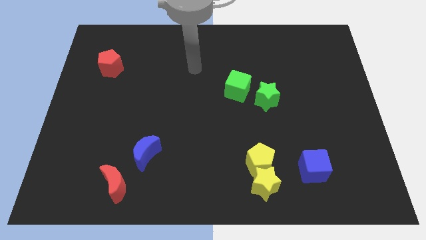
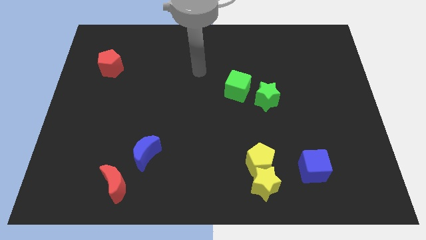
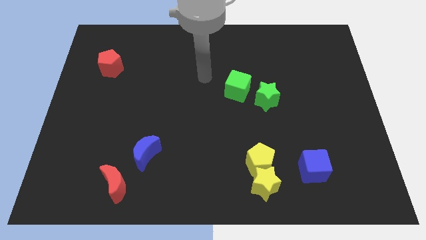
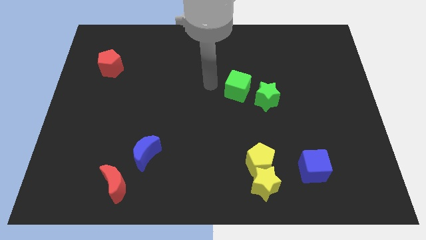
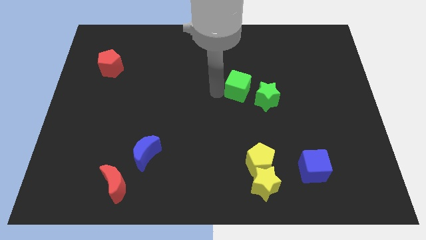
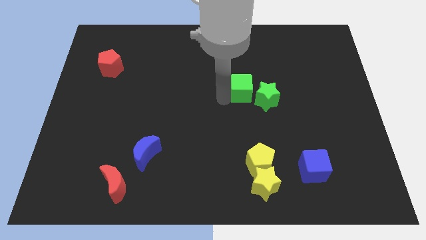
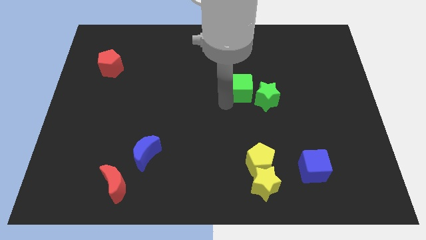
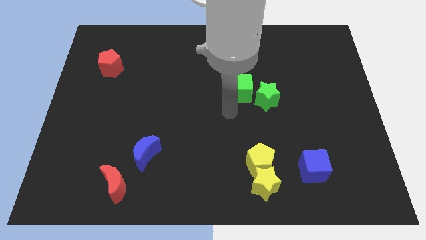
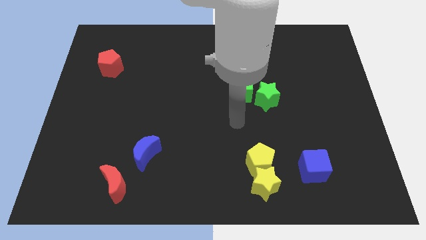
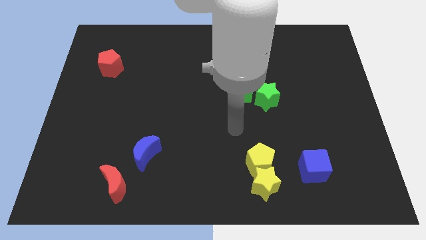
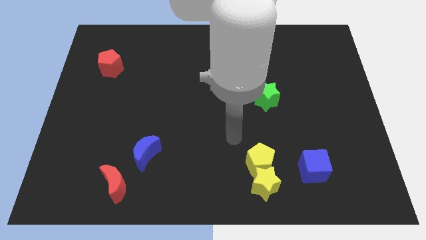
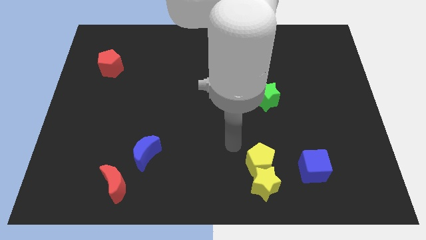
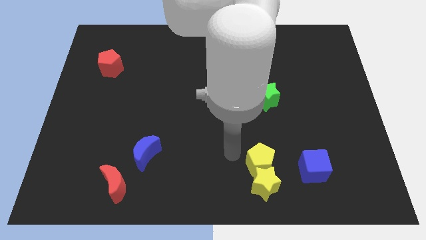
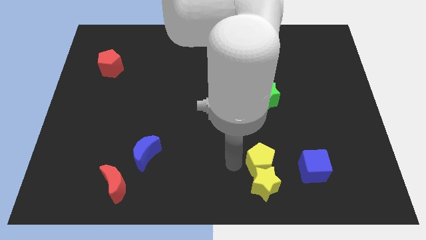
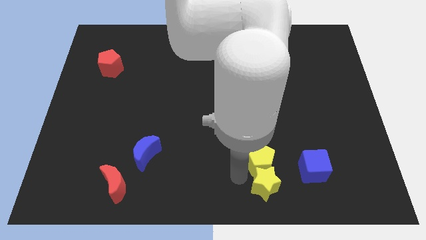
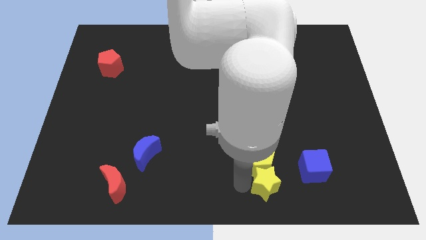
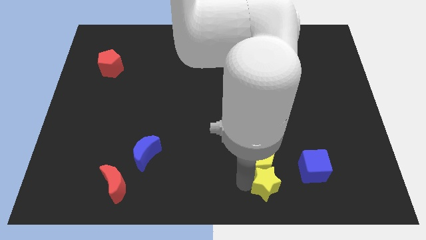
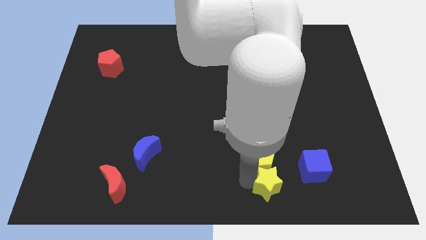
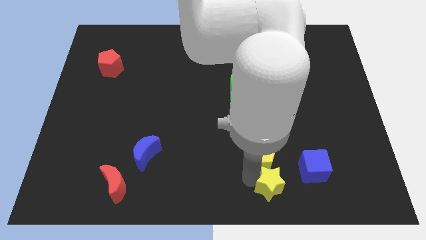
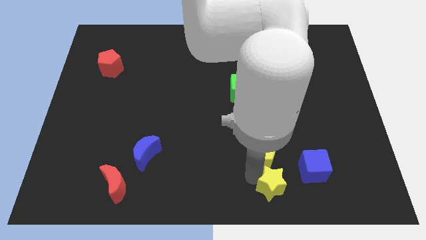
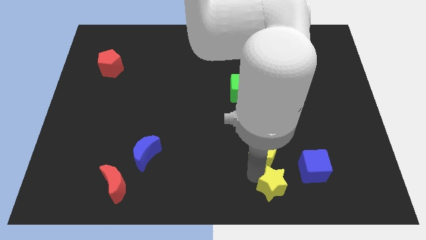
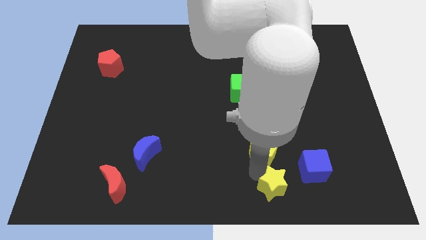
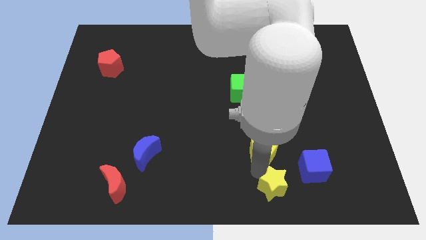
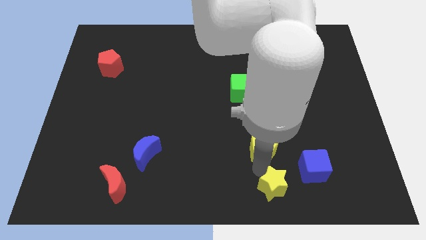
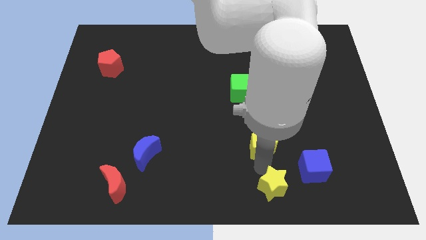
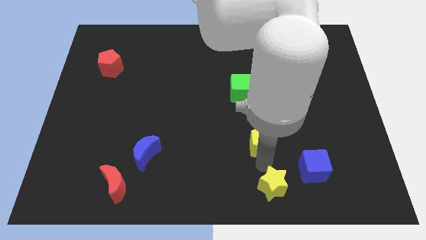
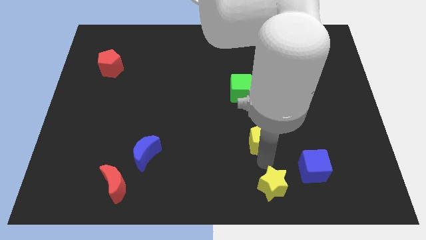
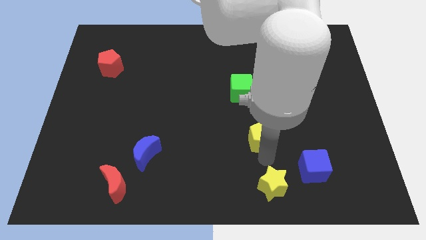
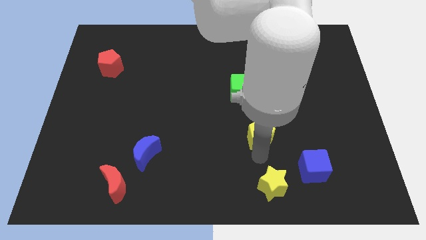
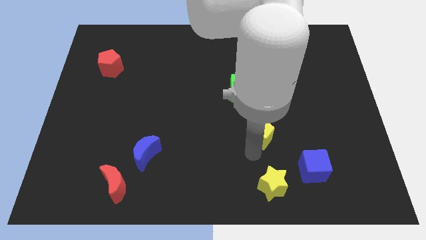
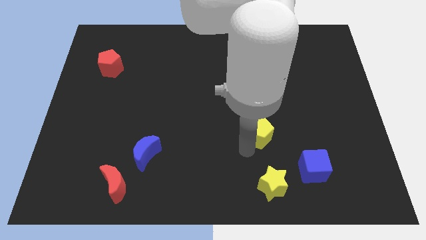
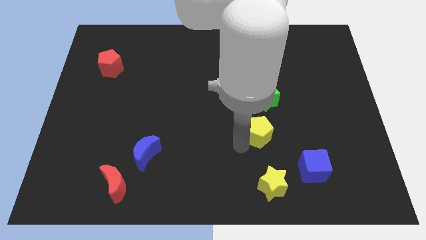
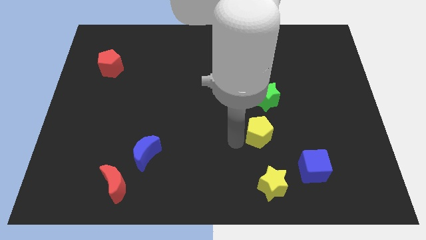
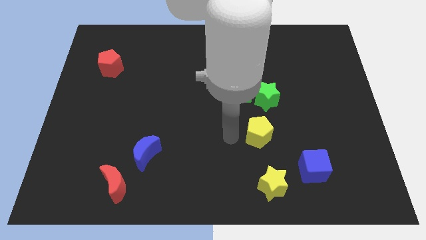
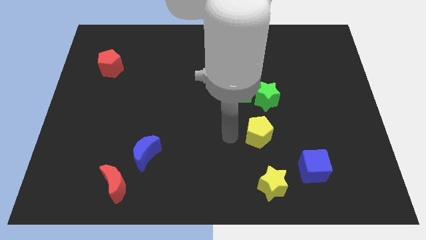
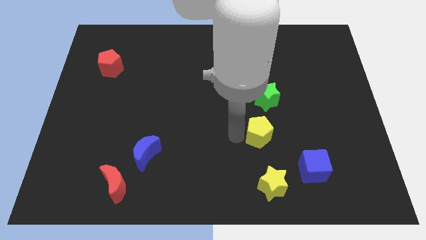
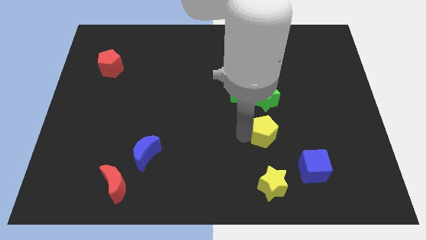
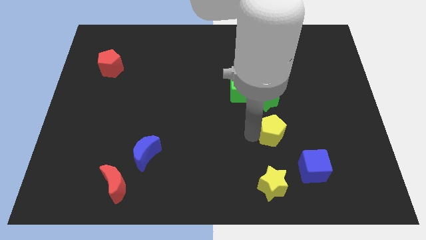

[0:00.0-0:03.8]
slightly slide the yellow pentagon diagonally up and to the right

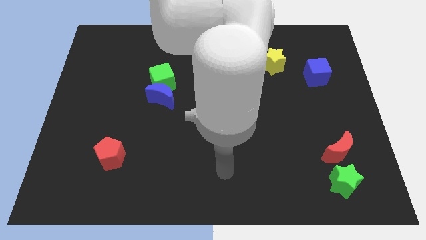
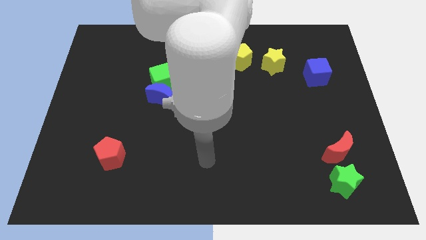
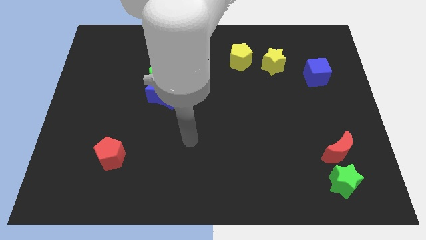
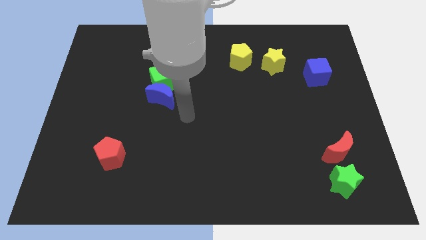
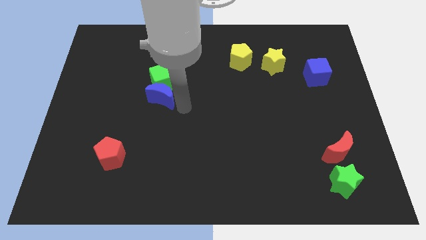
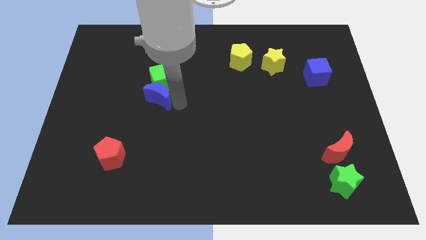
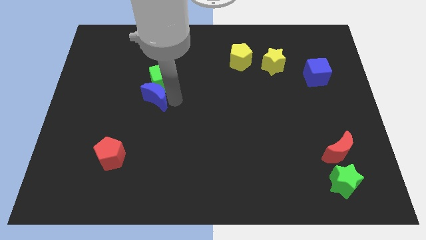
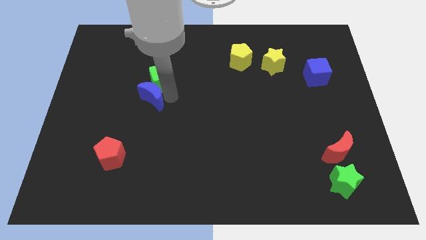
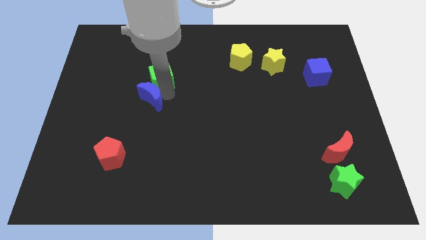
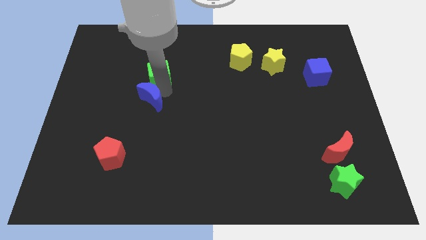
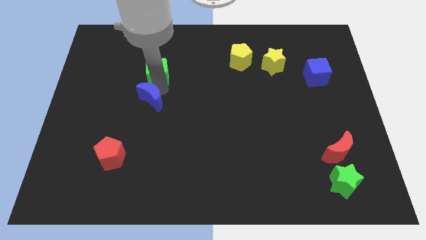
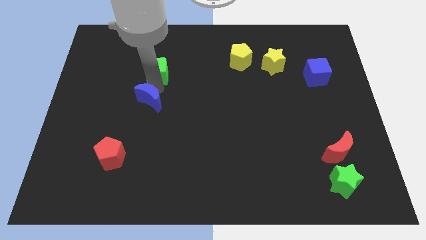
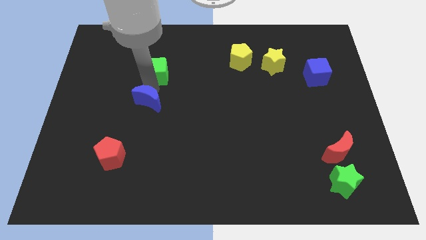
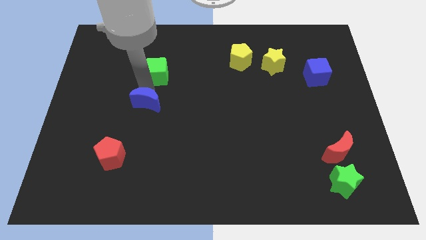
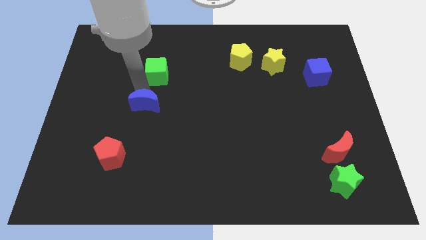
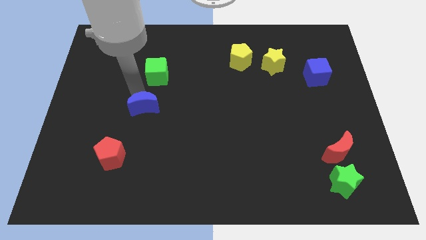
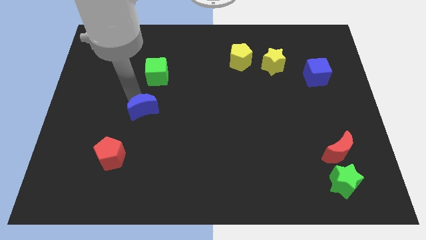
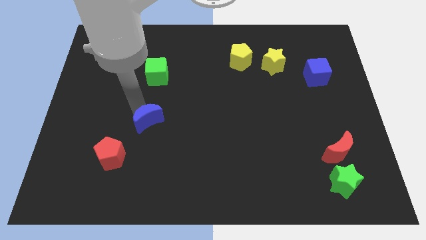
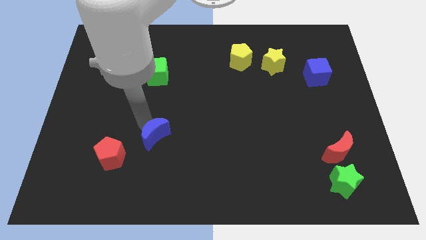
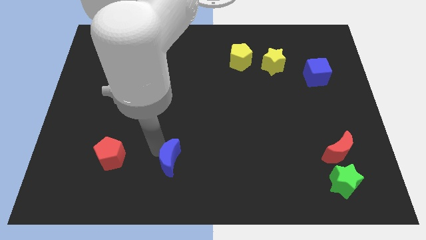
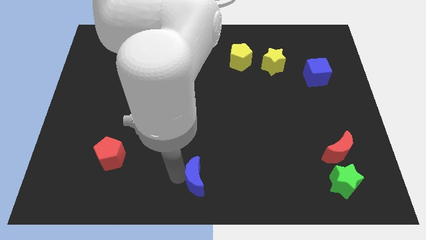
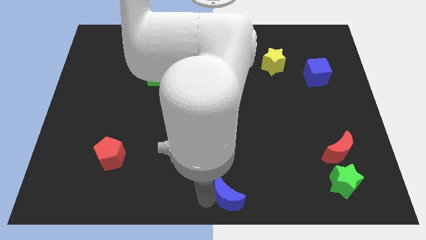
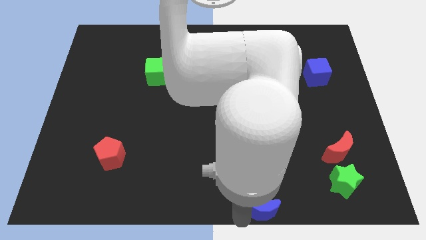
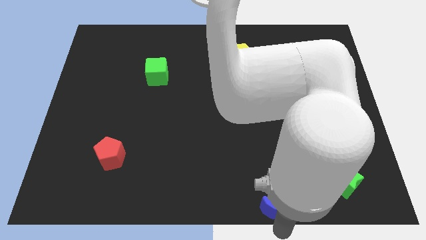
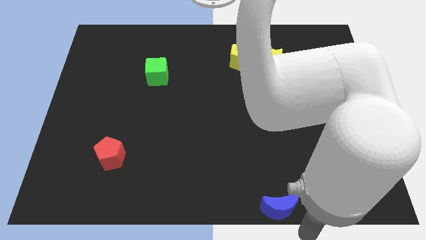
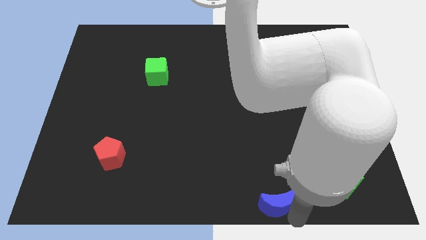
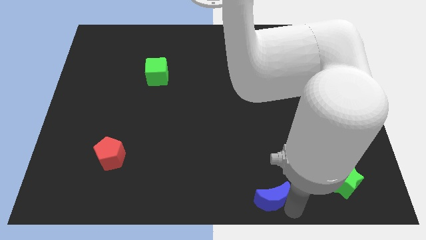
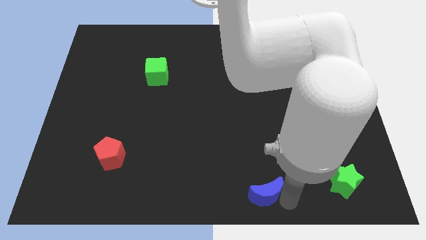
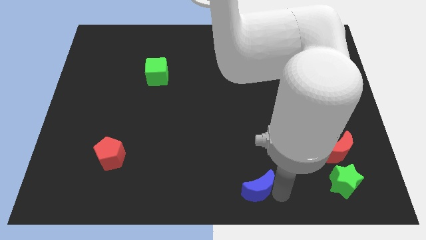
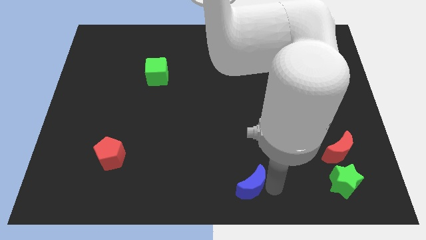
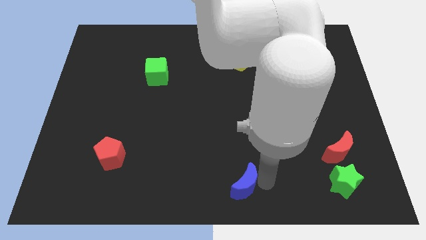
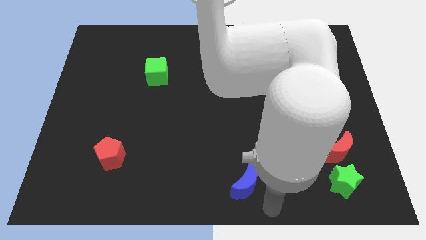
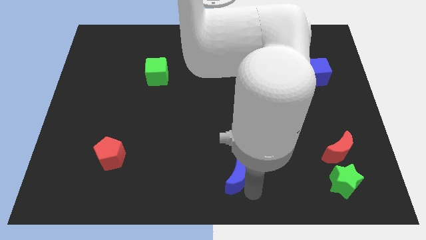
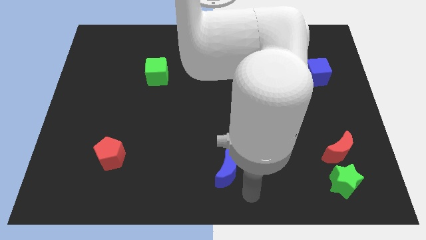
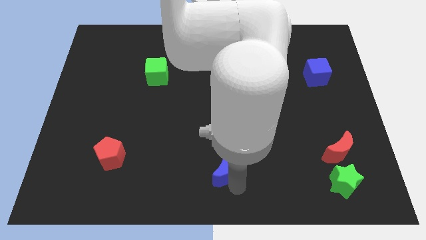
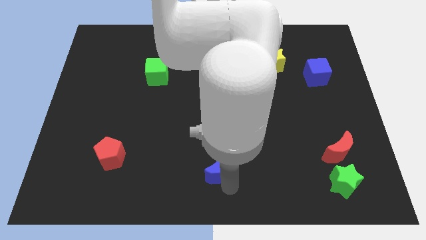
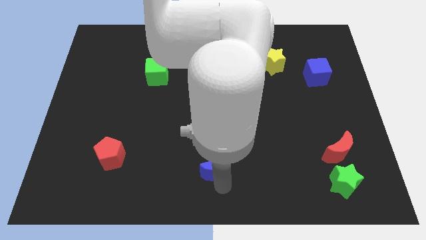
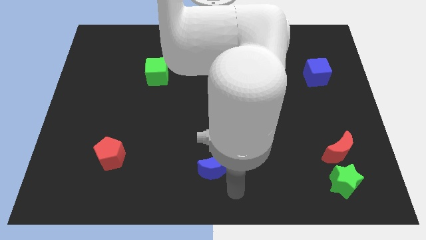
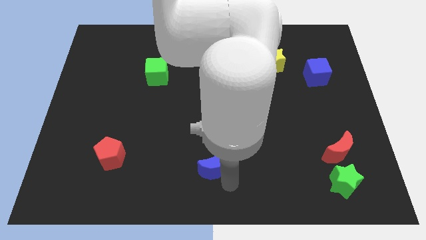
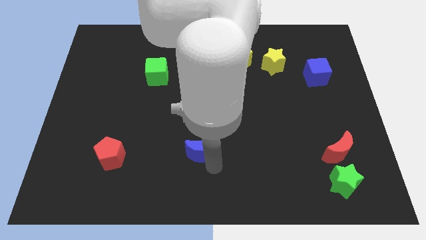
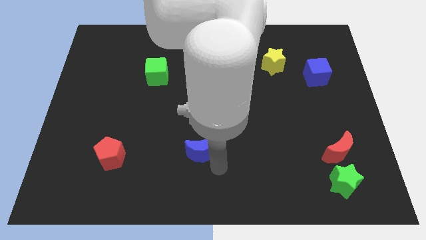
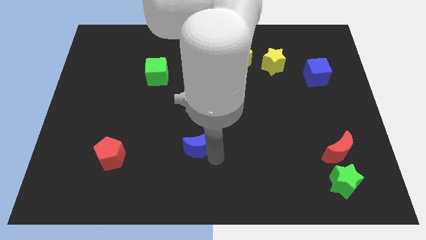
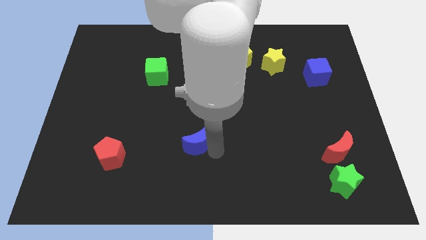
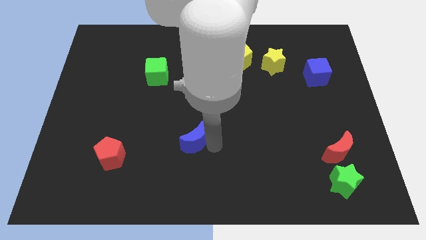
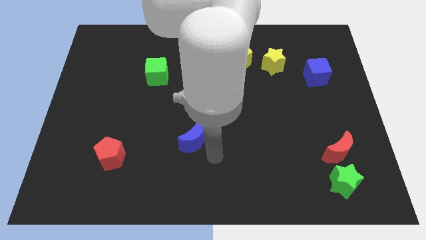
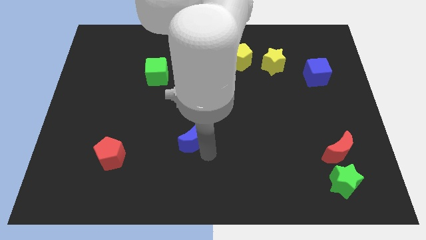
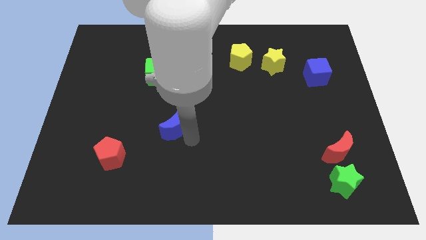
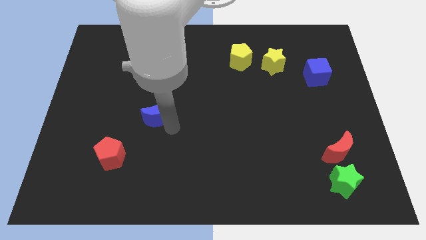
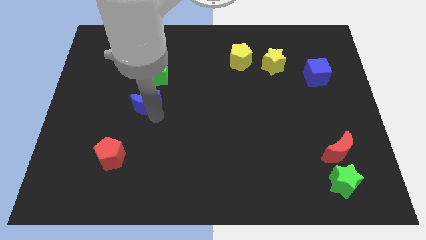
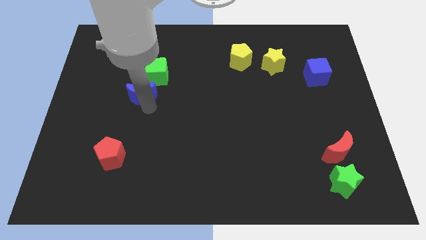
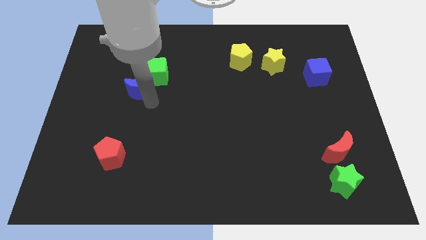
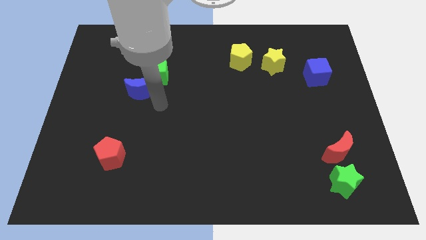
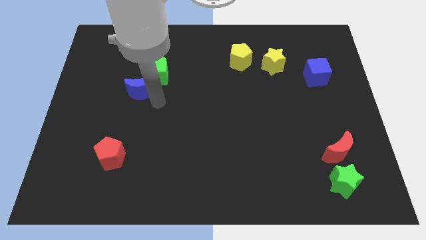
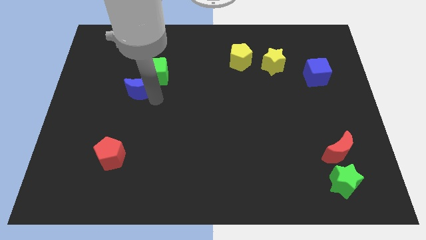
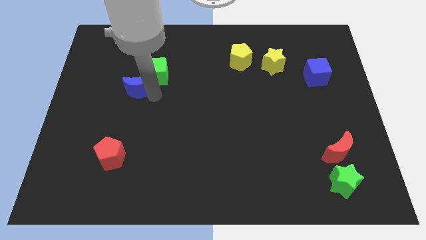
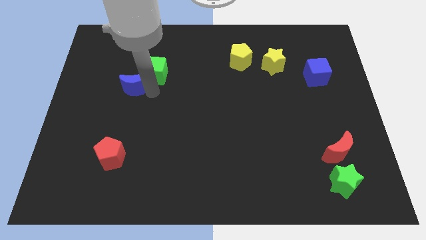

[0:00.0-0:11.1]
slightly slide the blue moon up and then to the left
